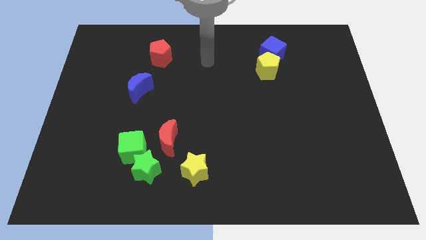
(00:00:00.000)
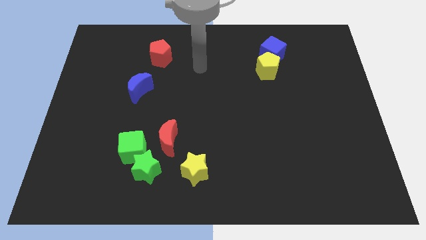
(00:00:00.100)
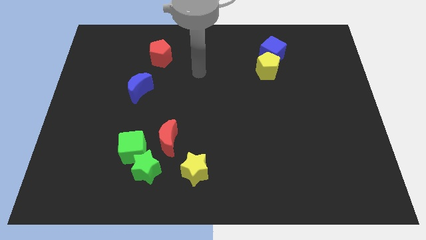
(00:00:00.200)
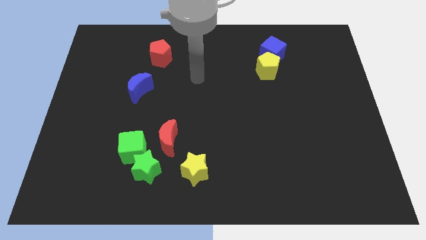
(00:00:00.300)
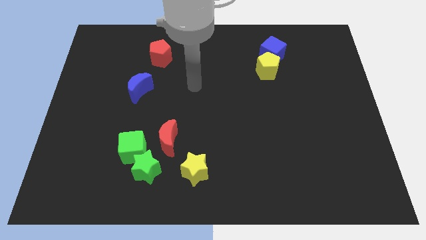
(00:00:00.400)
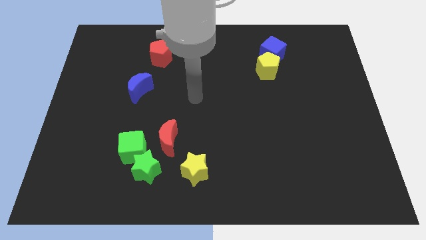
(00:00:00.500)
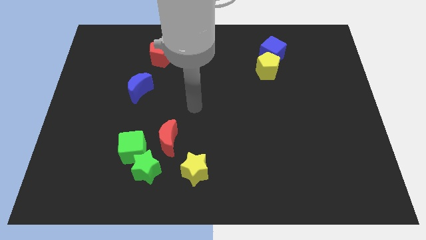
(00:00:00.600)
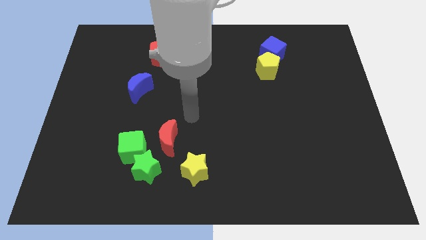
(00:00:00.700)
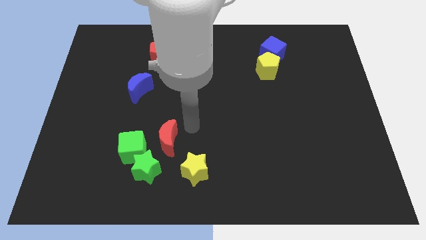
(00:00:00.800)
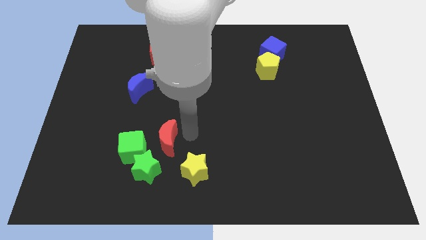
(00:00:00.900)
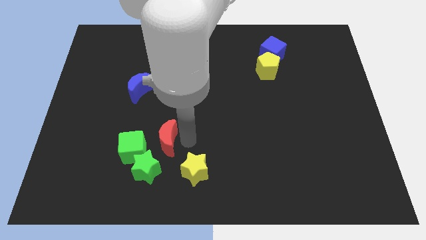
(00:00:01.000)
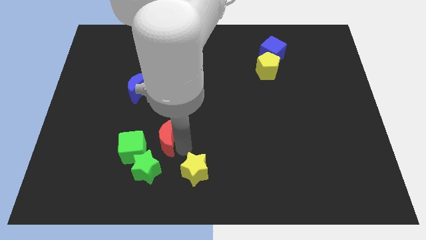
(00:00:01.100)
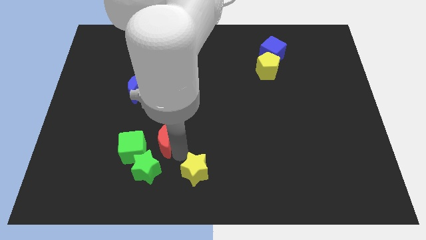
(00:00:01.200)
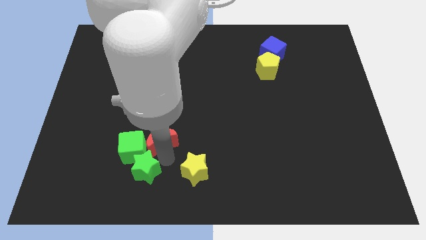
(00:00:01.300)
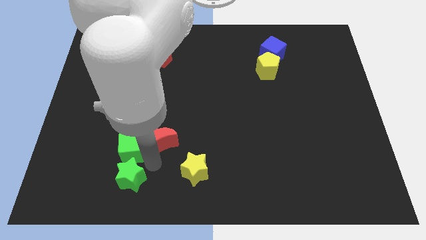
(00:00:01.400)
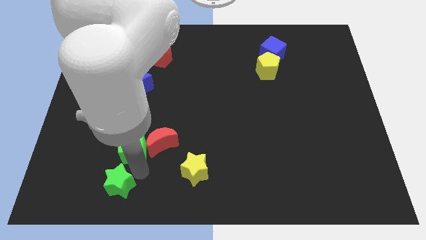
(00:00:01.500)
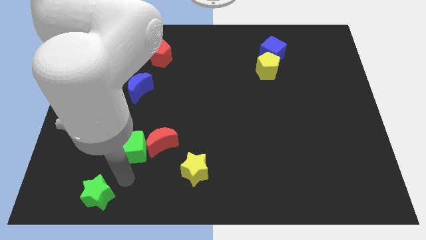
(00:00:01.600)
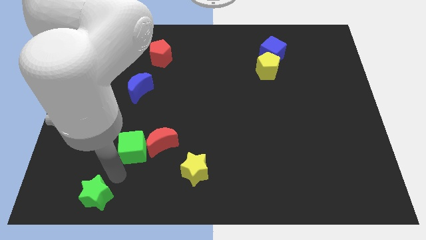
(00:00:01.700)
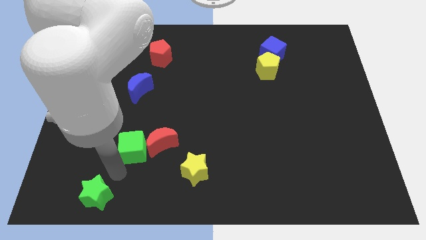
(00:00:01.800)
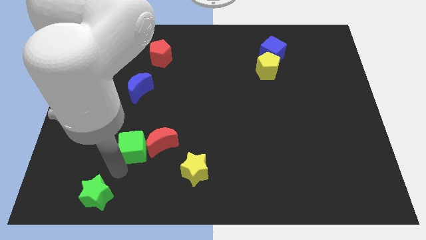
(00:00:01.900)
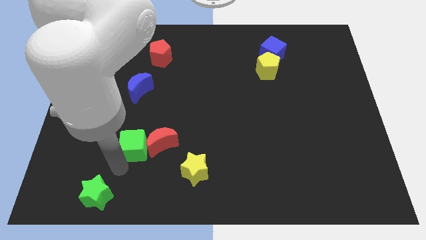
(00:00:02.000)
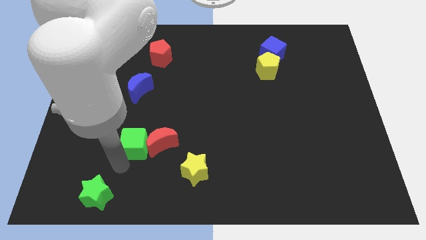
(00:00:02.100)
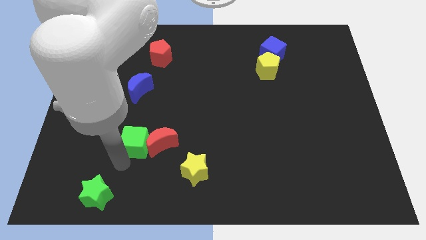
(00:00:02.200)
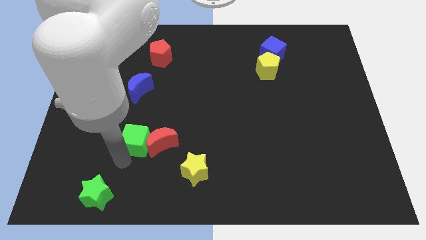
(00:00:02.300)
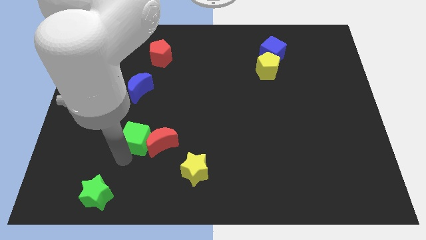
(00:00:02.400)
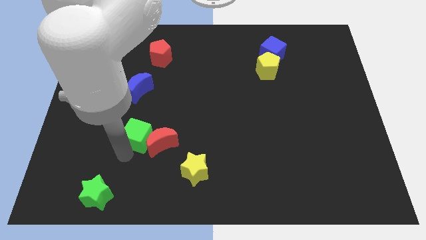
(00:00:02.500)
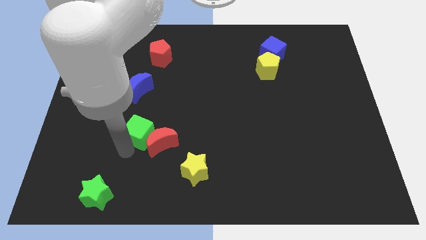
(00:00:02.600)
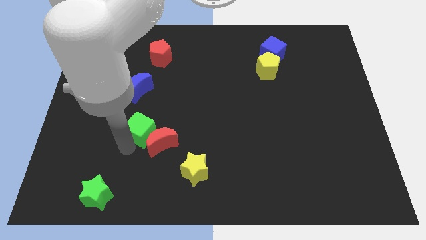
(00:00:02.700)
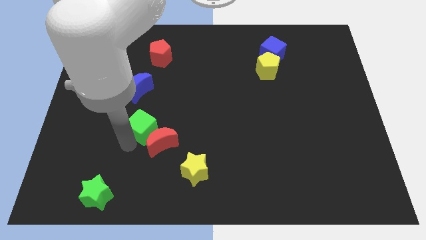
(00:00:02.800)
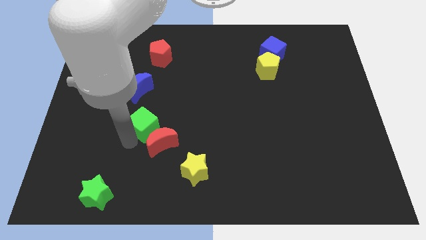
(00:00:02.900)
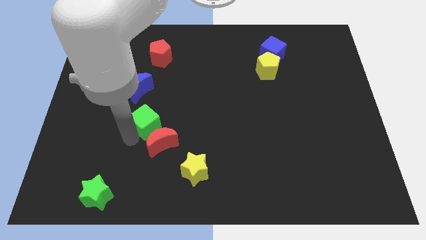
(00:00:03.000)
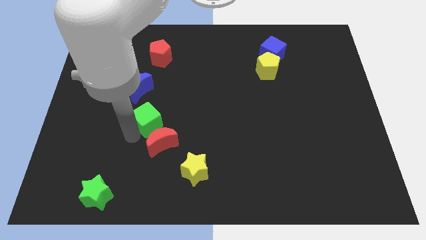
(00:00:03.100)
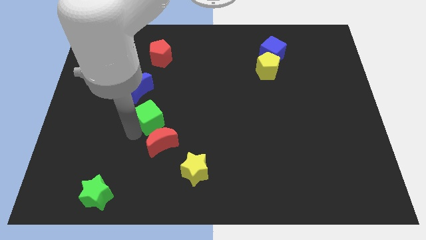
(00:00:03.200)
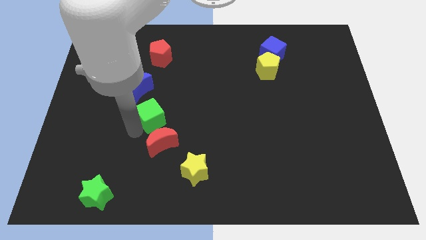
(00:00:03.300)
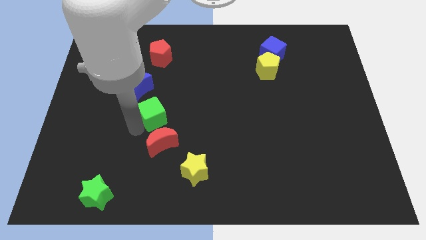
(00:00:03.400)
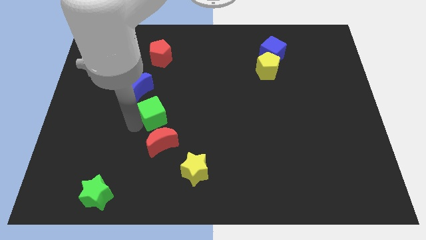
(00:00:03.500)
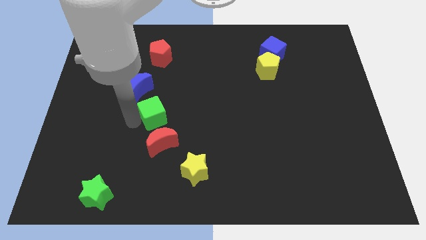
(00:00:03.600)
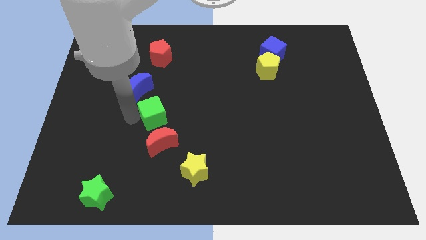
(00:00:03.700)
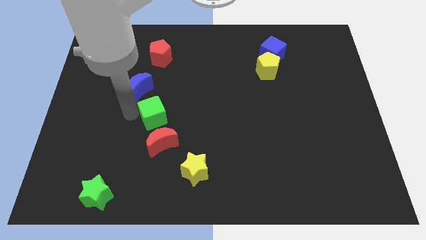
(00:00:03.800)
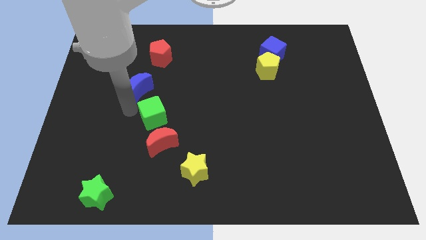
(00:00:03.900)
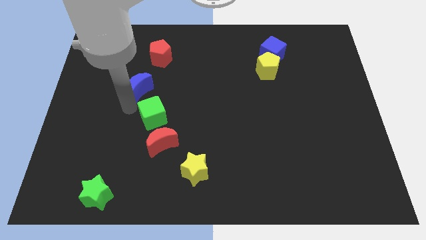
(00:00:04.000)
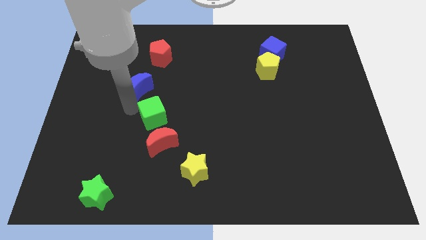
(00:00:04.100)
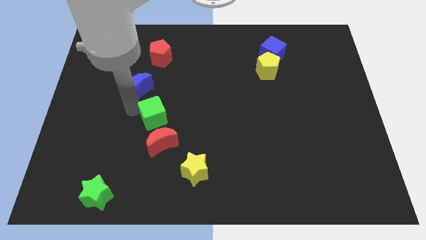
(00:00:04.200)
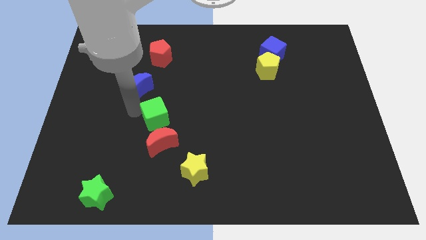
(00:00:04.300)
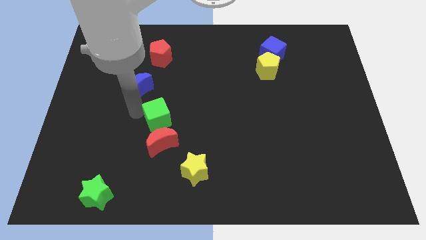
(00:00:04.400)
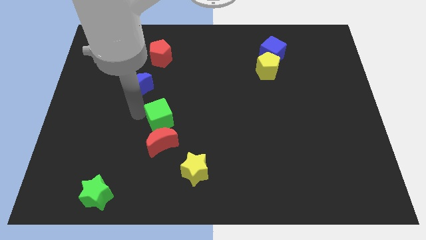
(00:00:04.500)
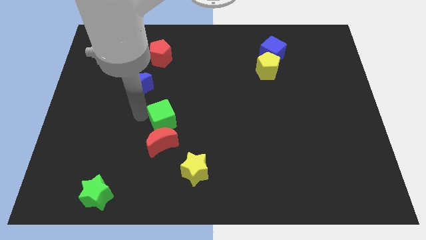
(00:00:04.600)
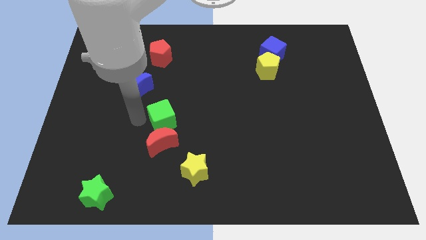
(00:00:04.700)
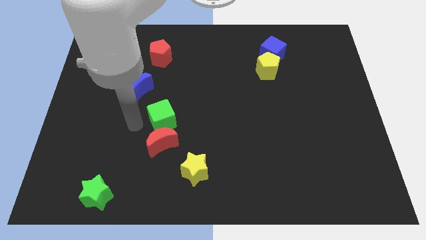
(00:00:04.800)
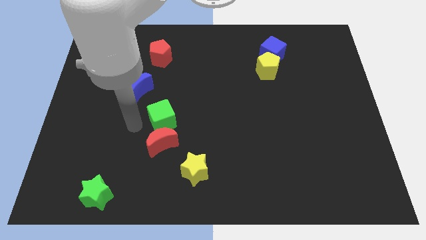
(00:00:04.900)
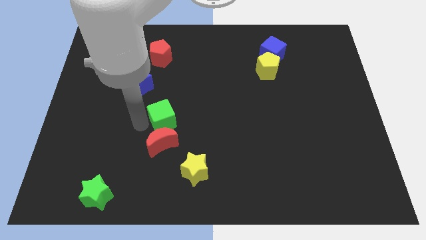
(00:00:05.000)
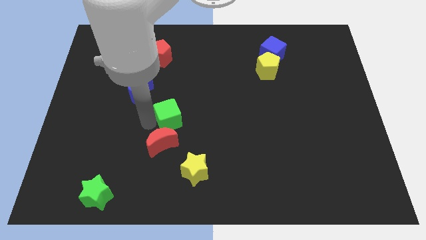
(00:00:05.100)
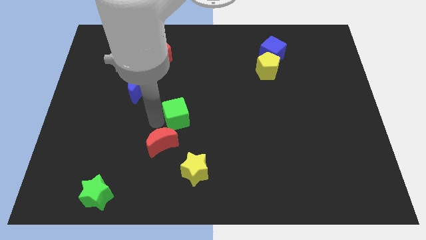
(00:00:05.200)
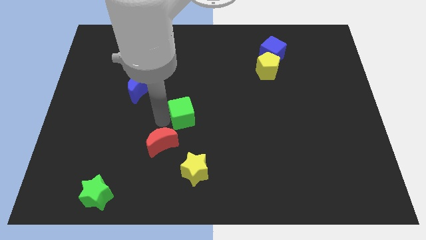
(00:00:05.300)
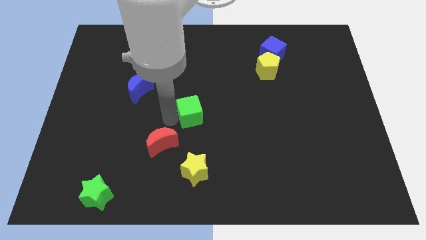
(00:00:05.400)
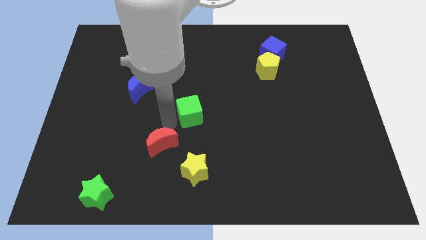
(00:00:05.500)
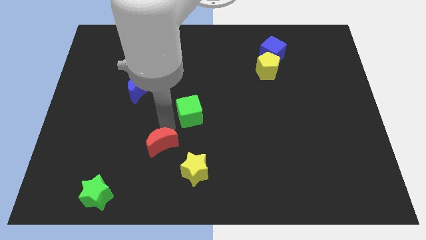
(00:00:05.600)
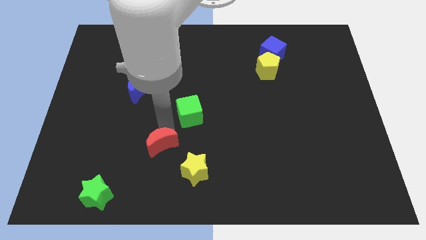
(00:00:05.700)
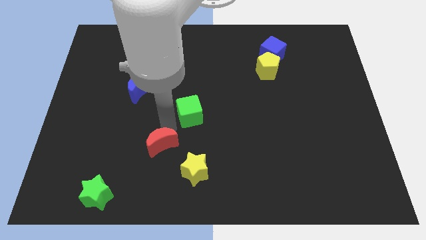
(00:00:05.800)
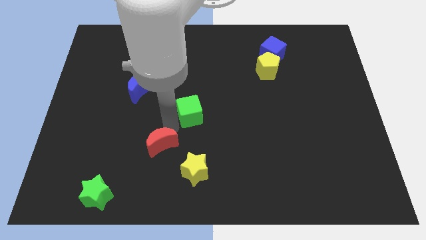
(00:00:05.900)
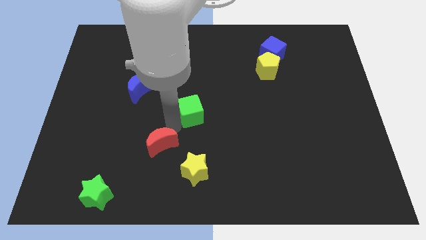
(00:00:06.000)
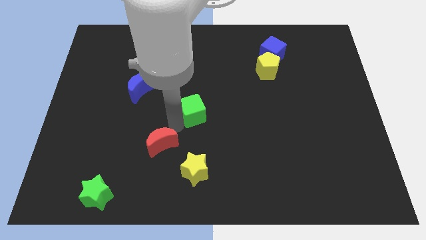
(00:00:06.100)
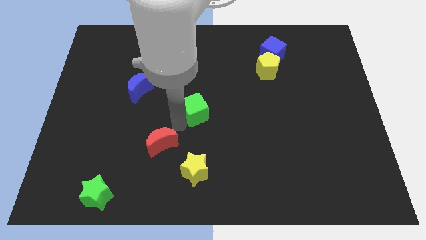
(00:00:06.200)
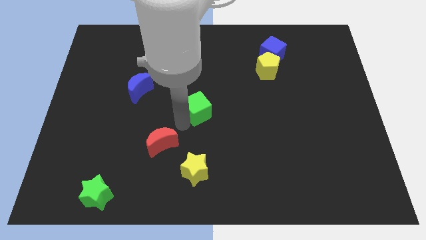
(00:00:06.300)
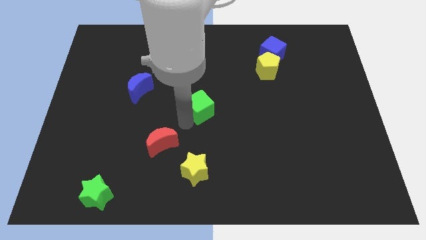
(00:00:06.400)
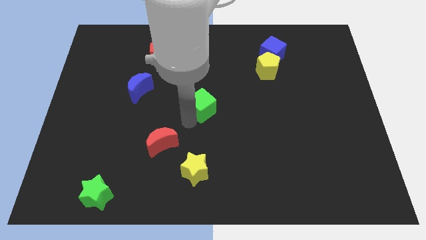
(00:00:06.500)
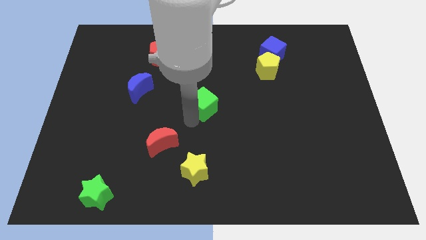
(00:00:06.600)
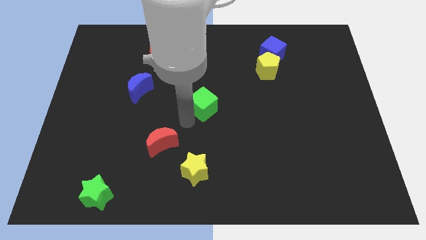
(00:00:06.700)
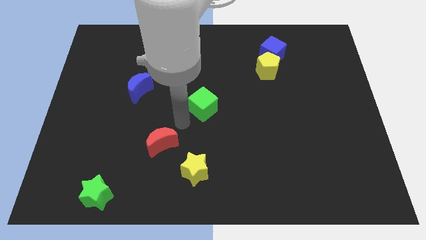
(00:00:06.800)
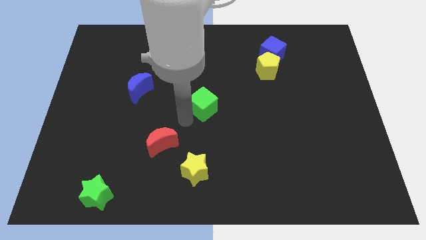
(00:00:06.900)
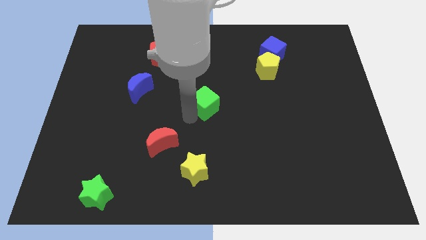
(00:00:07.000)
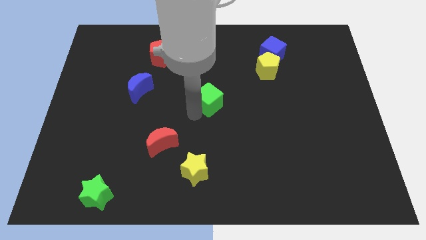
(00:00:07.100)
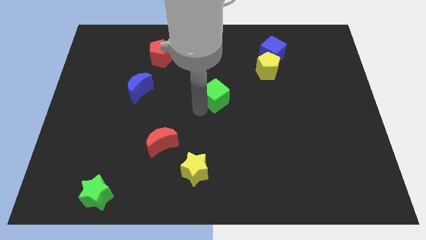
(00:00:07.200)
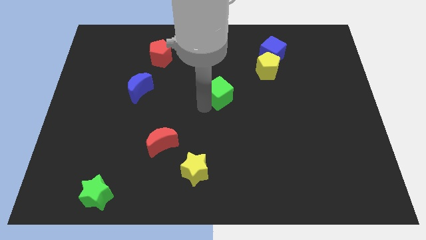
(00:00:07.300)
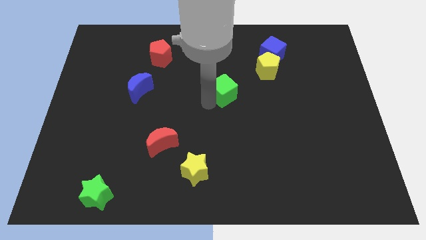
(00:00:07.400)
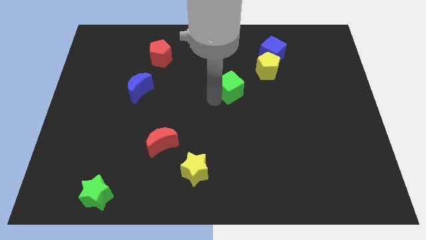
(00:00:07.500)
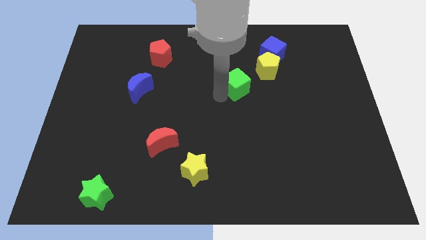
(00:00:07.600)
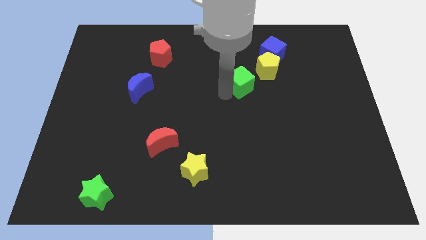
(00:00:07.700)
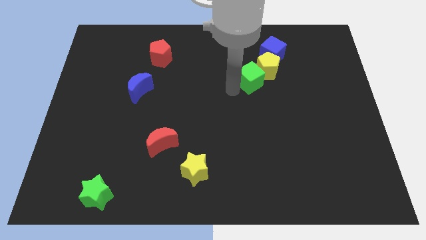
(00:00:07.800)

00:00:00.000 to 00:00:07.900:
push the green cube next to the yellow pentagon
